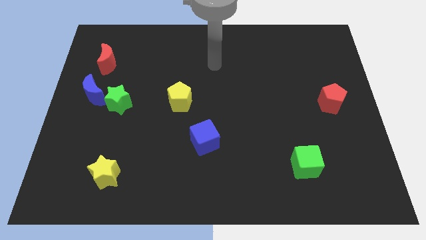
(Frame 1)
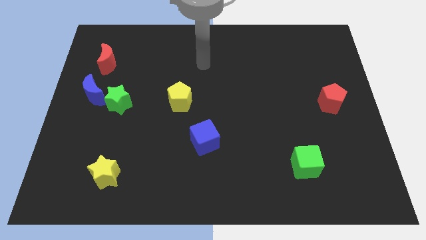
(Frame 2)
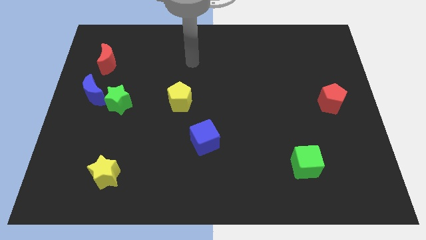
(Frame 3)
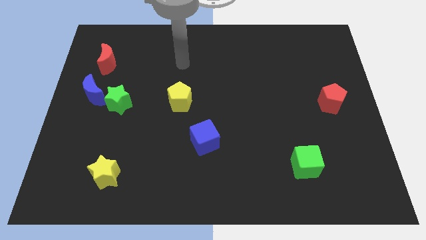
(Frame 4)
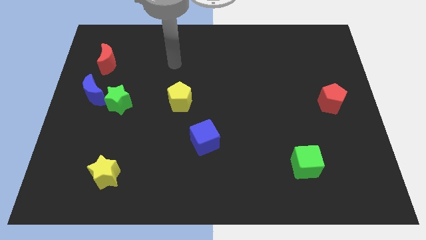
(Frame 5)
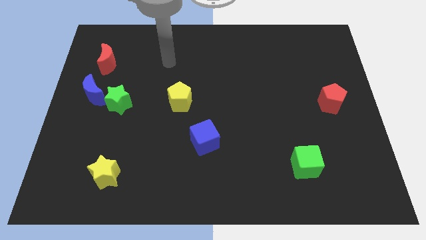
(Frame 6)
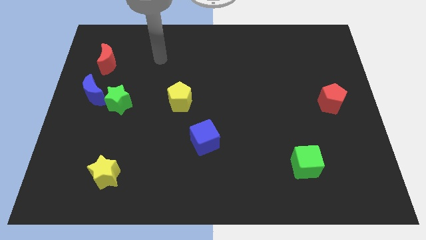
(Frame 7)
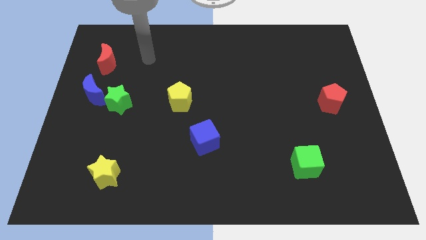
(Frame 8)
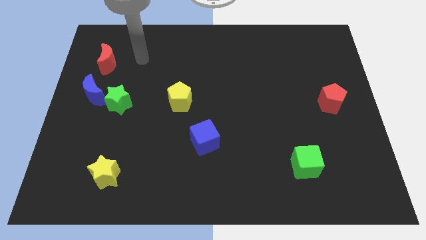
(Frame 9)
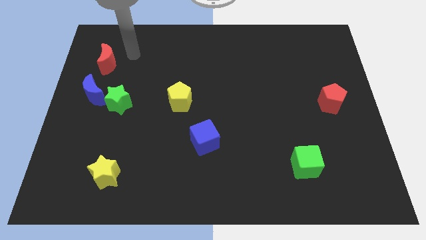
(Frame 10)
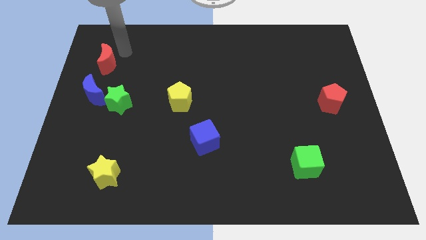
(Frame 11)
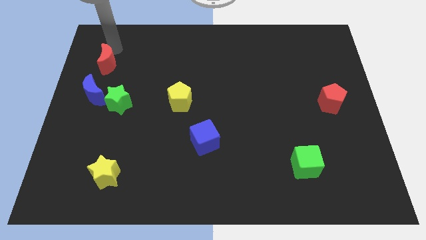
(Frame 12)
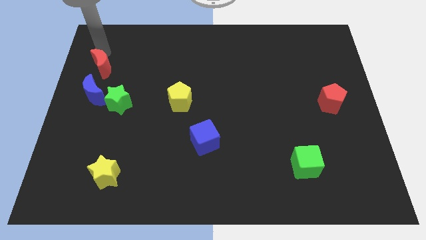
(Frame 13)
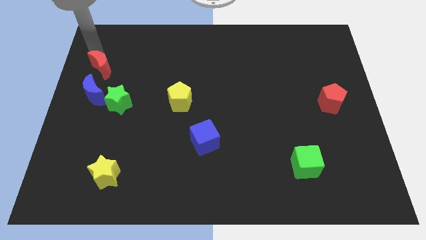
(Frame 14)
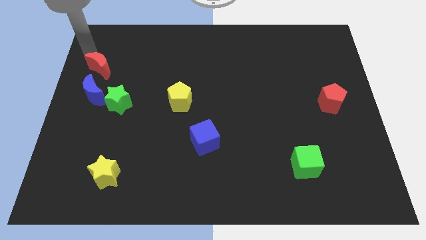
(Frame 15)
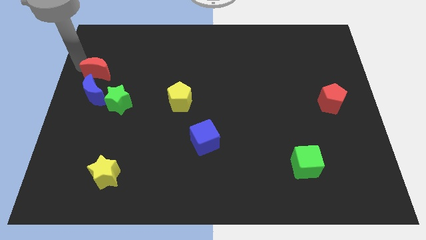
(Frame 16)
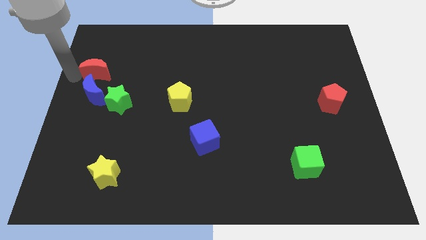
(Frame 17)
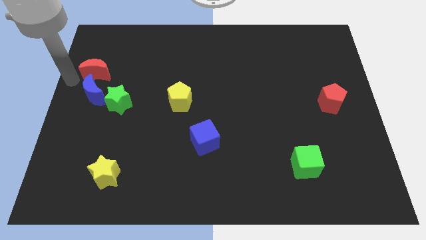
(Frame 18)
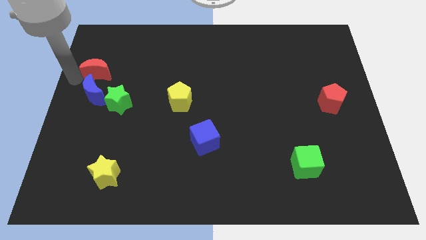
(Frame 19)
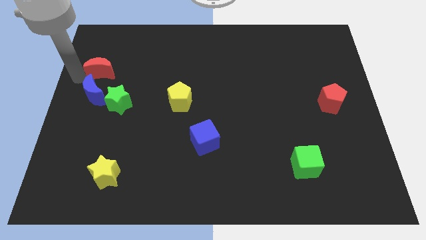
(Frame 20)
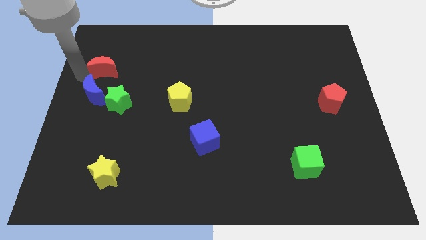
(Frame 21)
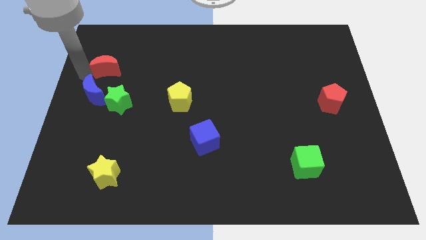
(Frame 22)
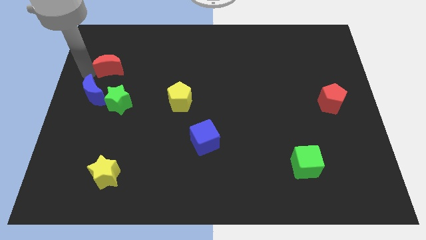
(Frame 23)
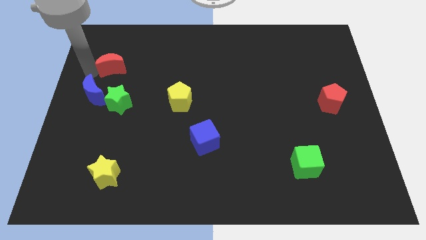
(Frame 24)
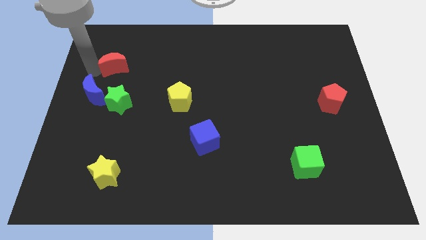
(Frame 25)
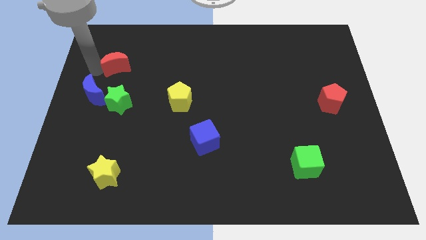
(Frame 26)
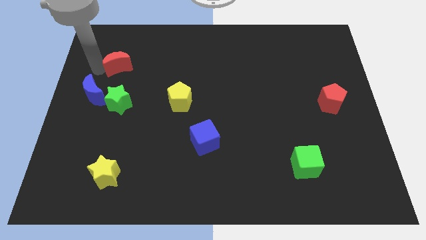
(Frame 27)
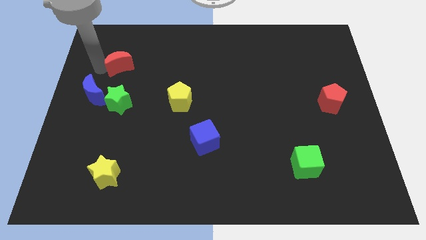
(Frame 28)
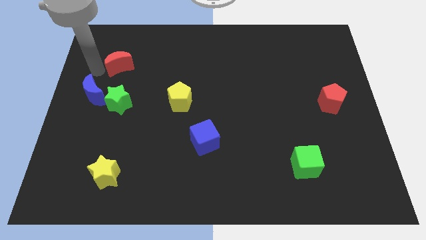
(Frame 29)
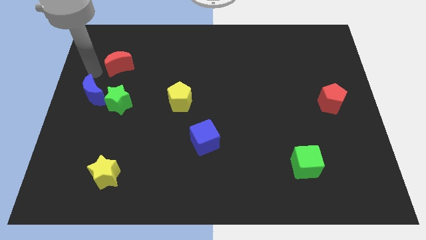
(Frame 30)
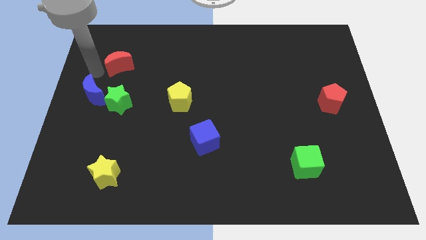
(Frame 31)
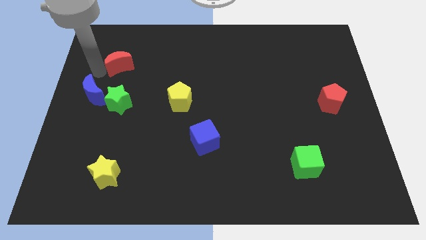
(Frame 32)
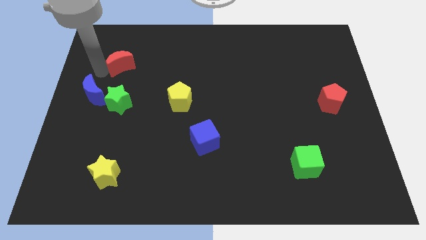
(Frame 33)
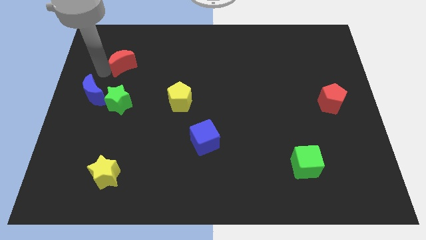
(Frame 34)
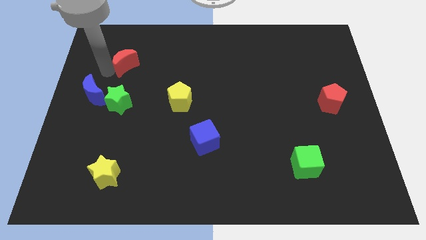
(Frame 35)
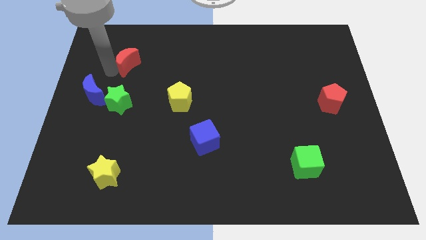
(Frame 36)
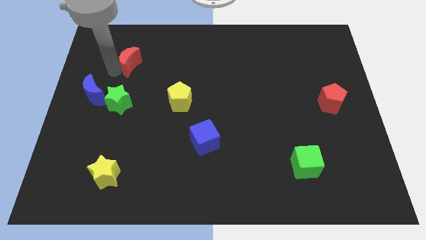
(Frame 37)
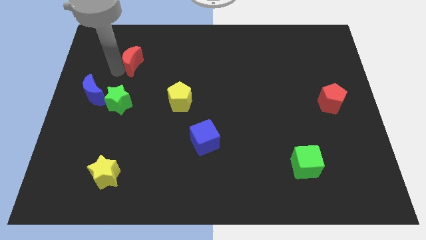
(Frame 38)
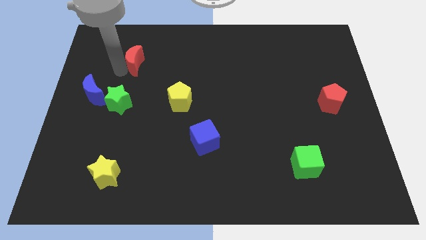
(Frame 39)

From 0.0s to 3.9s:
slightly slide the red moon right

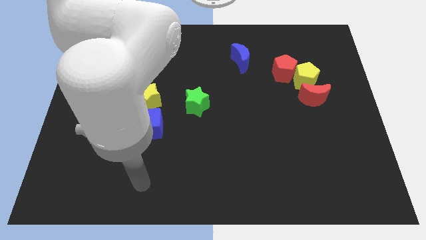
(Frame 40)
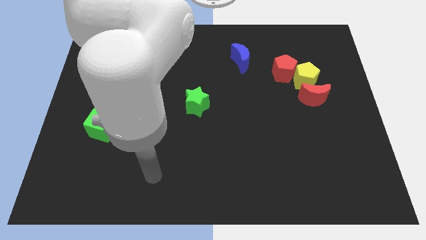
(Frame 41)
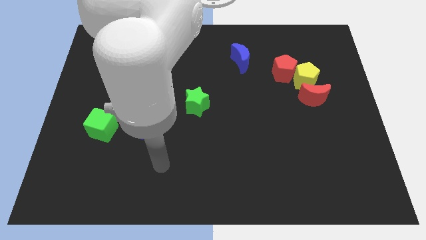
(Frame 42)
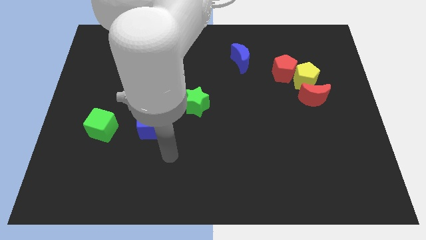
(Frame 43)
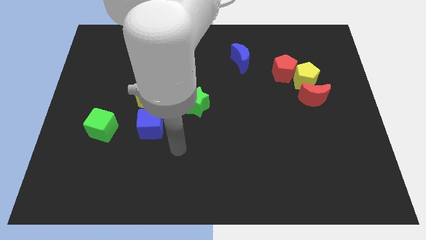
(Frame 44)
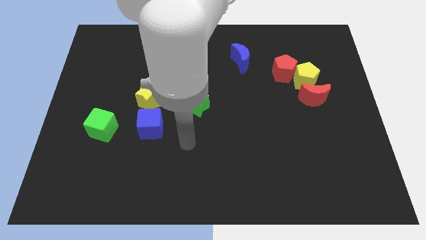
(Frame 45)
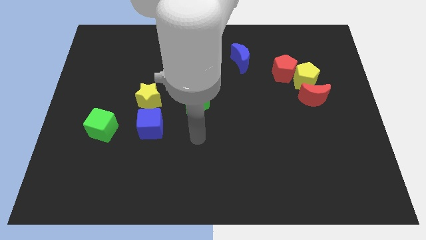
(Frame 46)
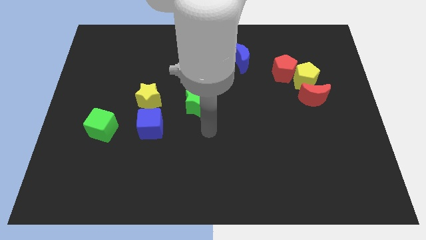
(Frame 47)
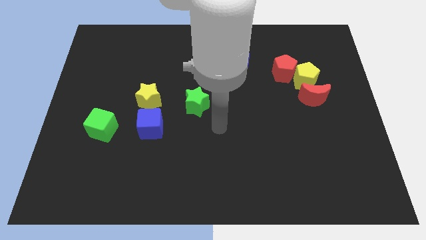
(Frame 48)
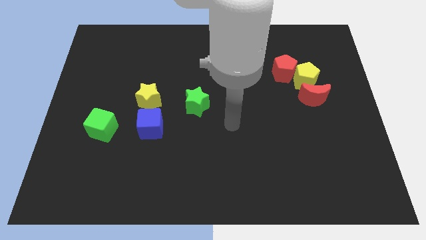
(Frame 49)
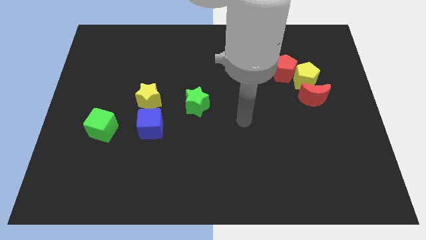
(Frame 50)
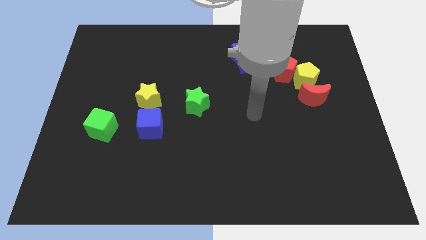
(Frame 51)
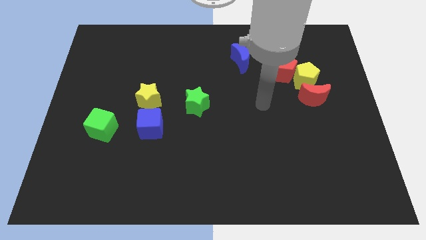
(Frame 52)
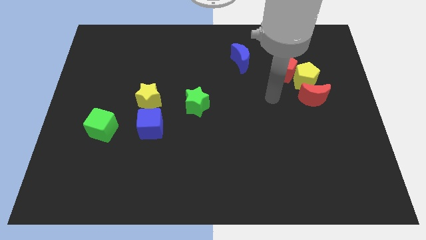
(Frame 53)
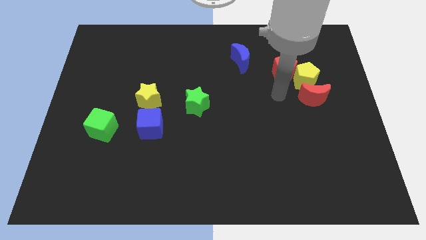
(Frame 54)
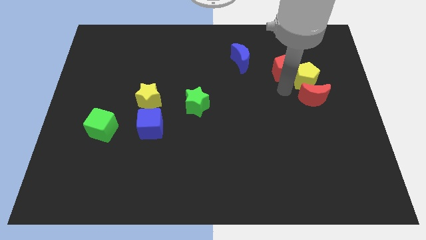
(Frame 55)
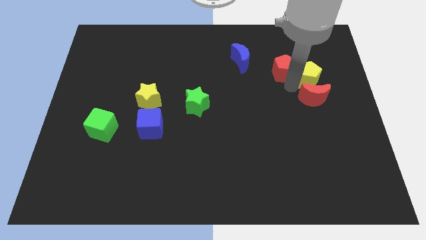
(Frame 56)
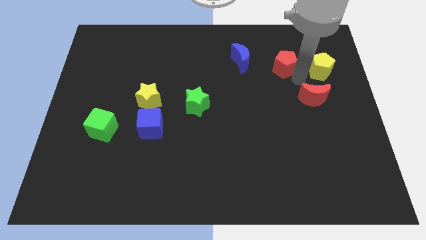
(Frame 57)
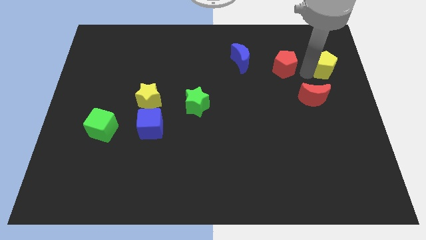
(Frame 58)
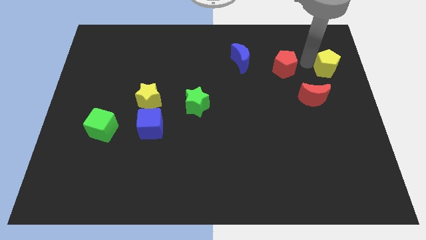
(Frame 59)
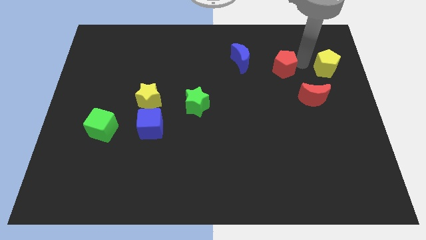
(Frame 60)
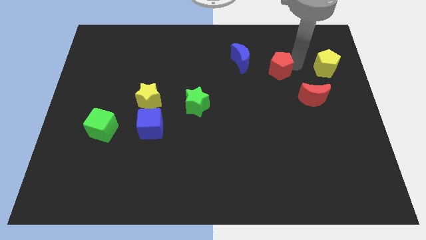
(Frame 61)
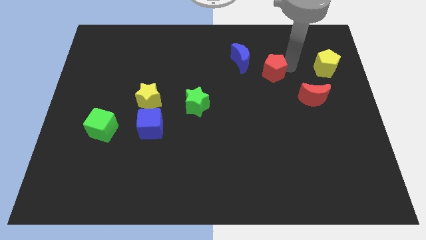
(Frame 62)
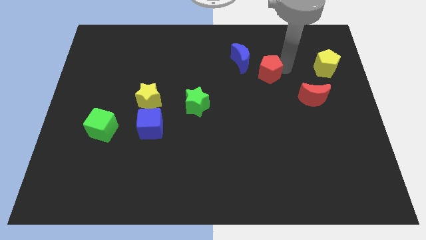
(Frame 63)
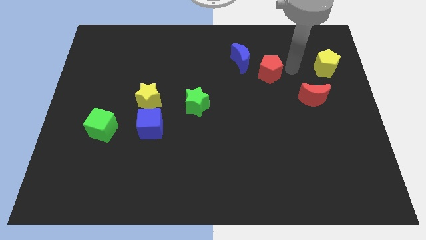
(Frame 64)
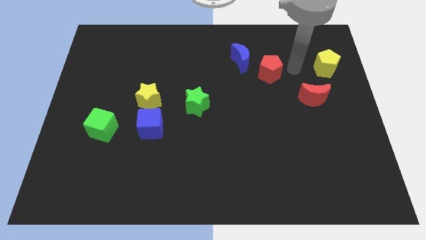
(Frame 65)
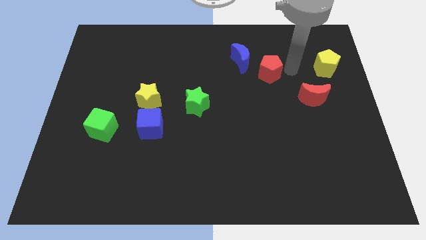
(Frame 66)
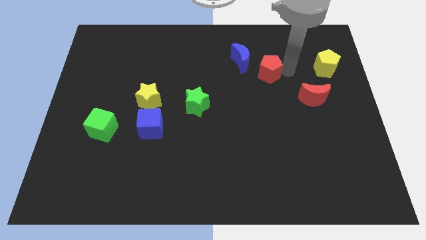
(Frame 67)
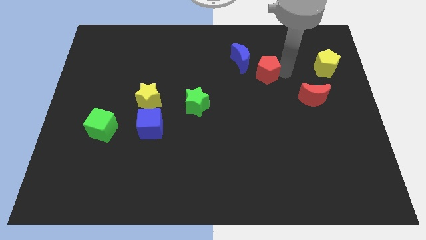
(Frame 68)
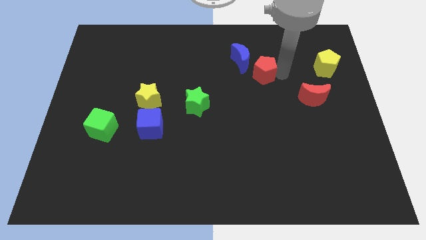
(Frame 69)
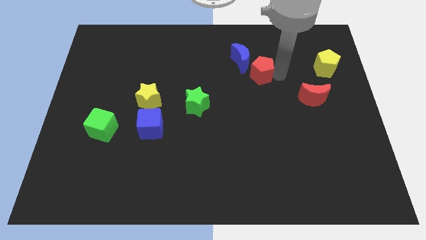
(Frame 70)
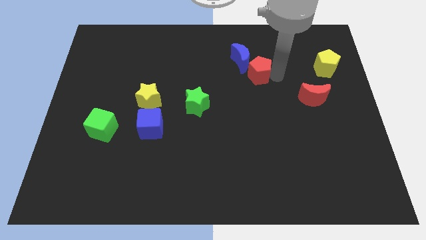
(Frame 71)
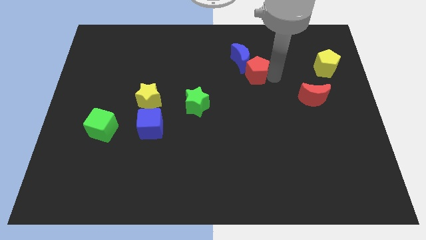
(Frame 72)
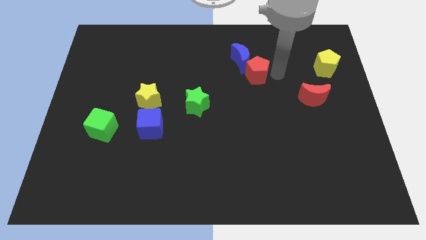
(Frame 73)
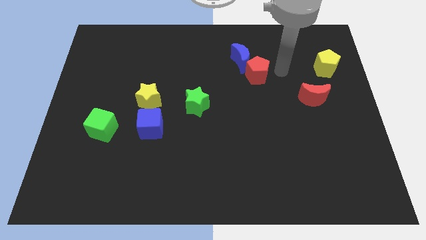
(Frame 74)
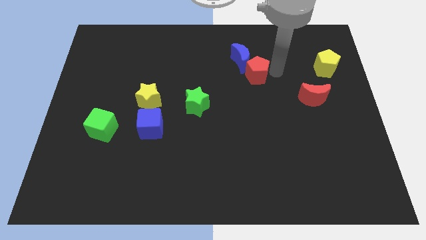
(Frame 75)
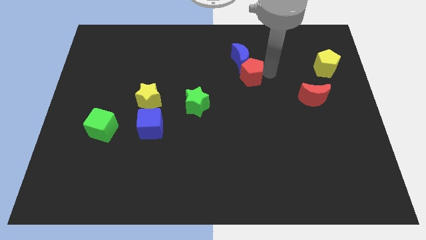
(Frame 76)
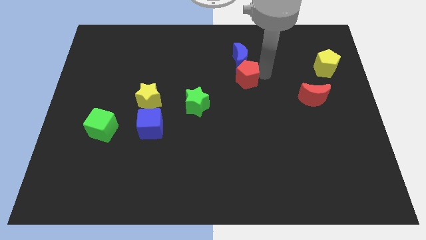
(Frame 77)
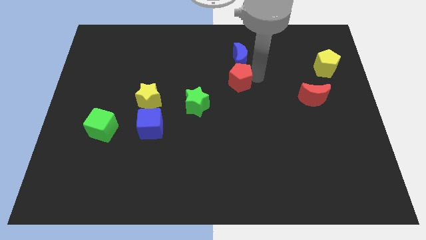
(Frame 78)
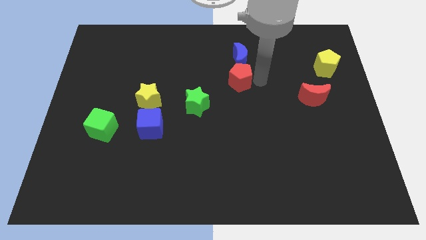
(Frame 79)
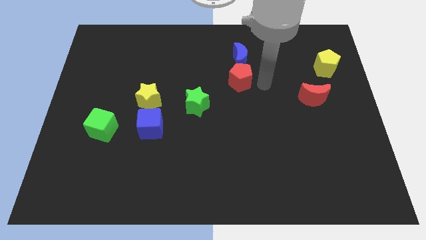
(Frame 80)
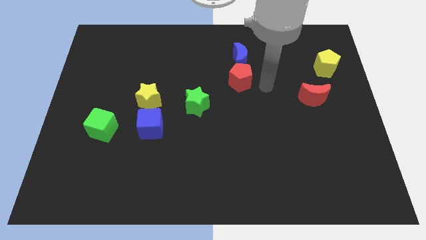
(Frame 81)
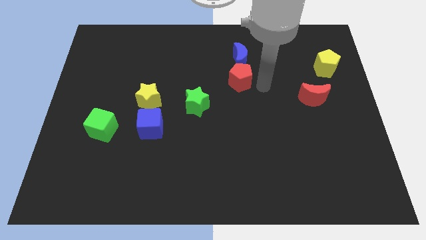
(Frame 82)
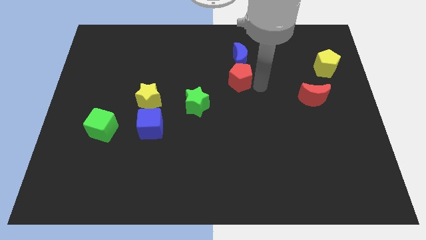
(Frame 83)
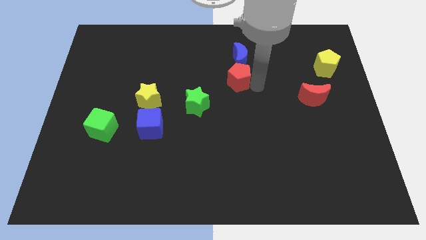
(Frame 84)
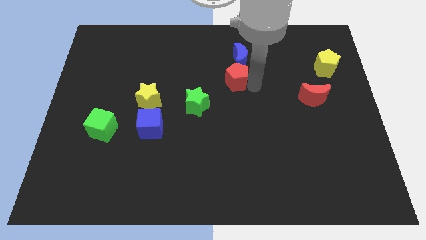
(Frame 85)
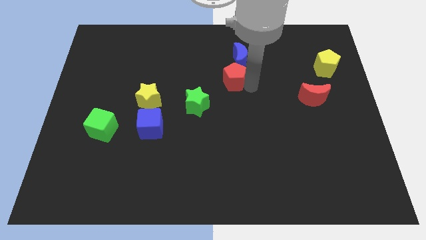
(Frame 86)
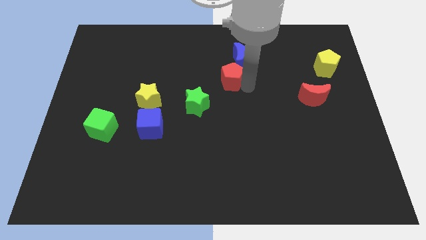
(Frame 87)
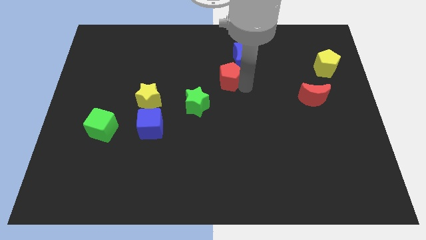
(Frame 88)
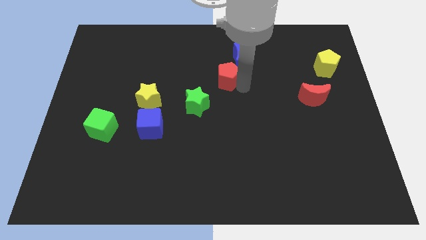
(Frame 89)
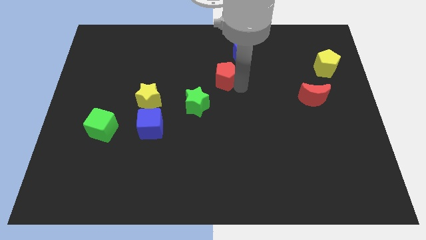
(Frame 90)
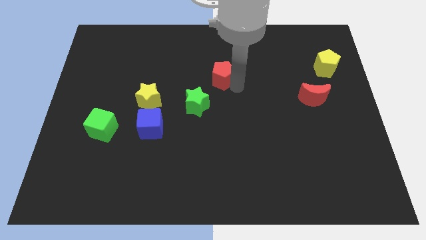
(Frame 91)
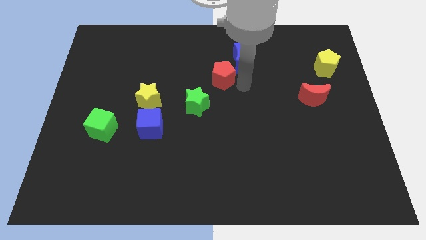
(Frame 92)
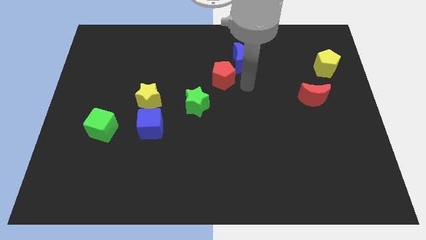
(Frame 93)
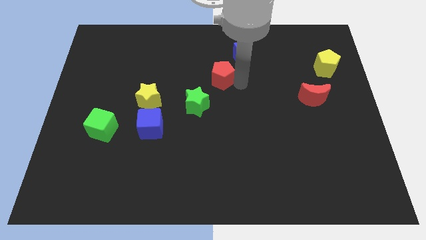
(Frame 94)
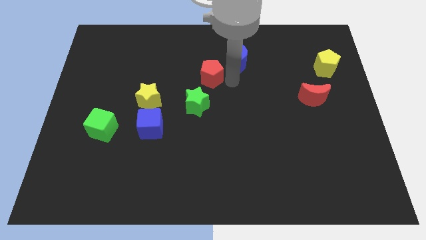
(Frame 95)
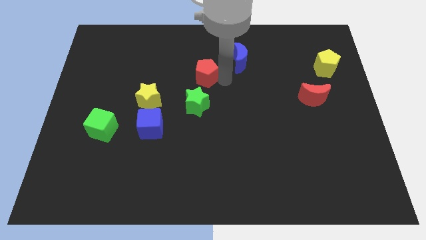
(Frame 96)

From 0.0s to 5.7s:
push the red pentagon to the left
